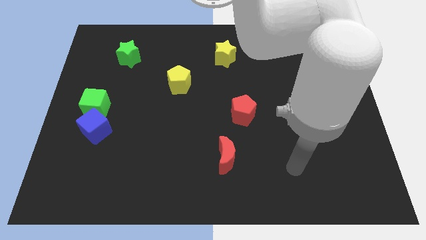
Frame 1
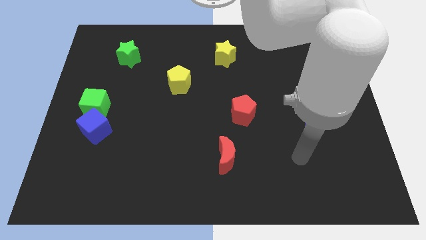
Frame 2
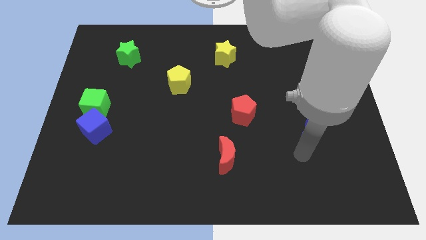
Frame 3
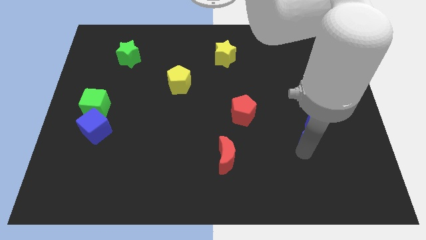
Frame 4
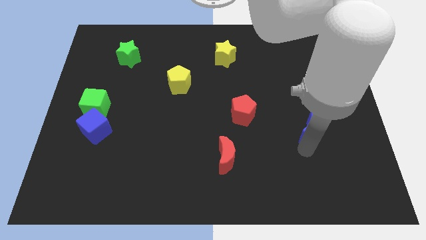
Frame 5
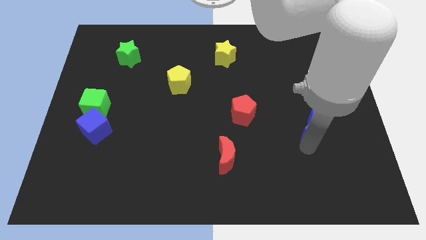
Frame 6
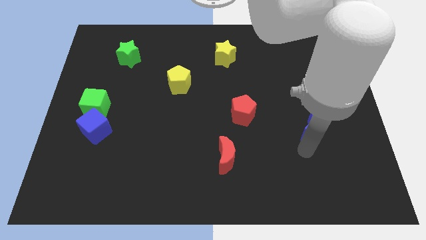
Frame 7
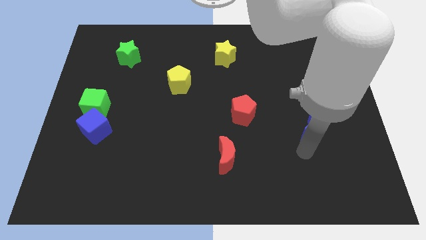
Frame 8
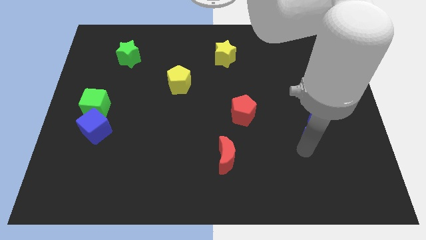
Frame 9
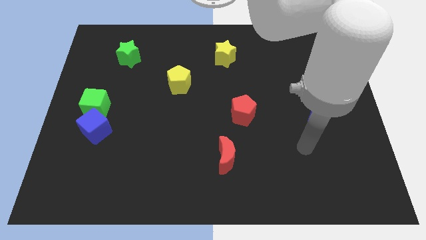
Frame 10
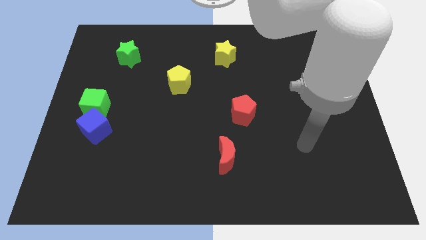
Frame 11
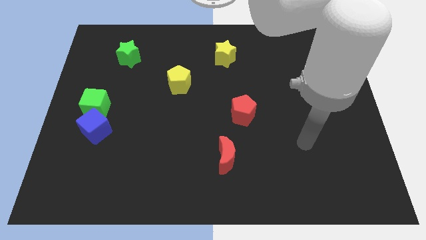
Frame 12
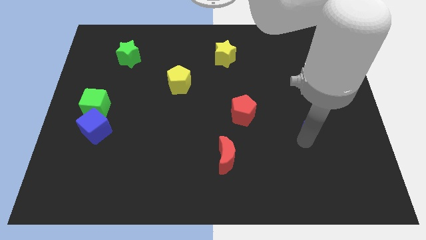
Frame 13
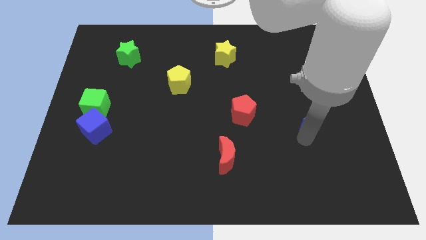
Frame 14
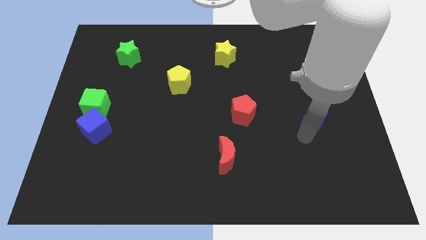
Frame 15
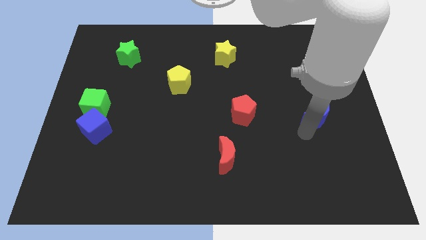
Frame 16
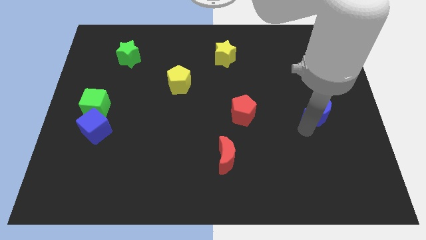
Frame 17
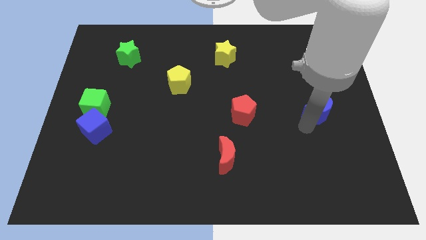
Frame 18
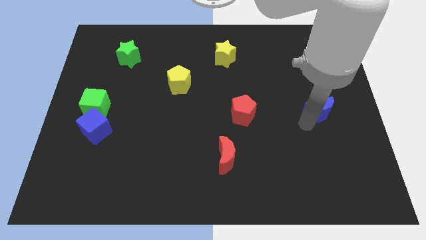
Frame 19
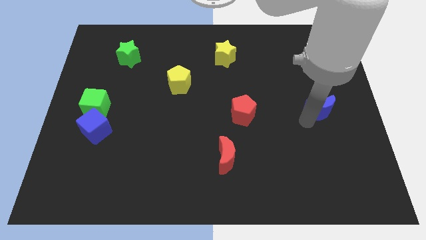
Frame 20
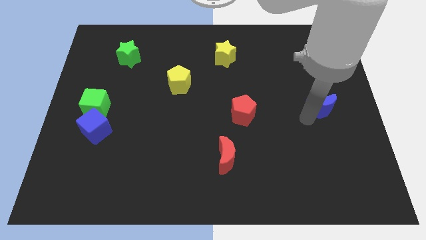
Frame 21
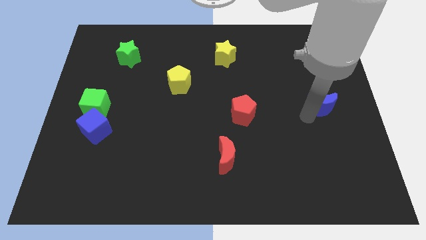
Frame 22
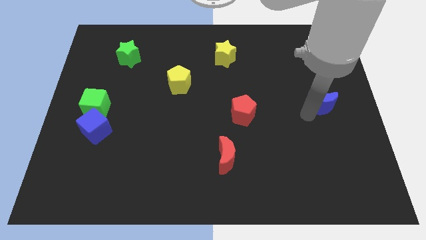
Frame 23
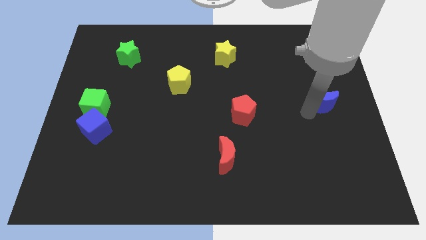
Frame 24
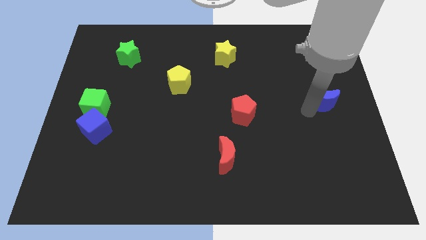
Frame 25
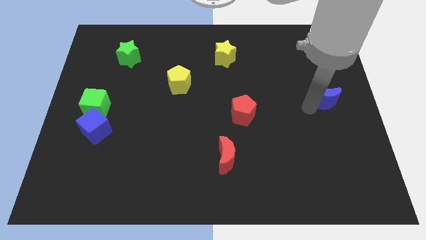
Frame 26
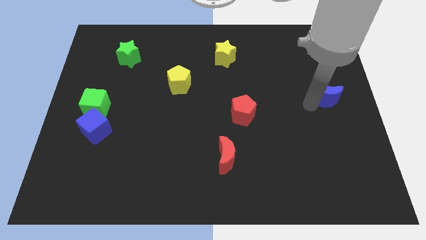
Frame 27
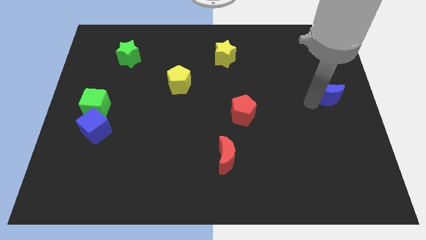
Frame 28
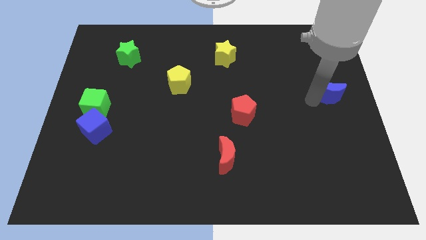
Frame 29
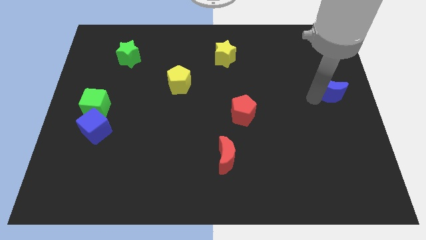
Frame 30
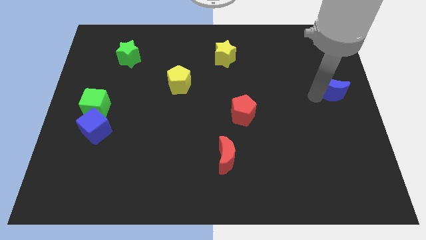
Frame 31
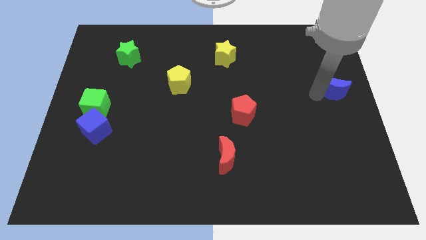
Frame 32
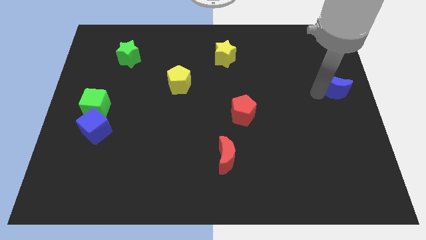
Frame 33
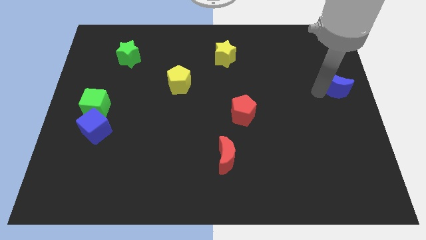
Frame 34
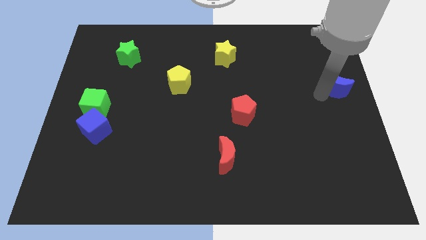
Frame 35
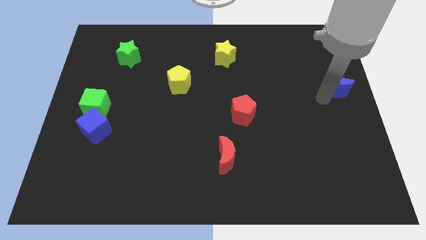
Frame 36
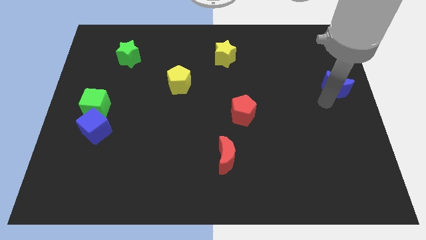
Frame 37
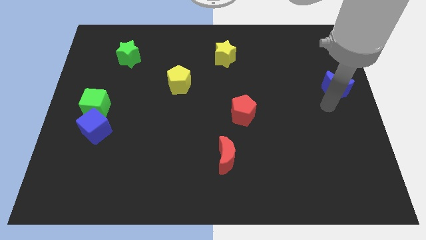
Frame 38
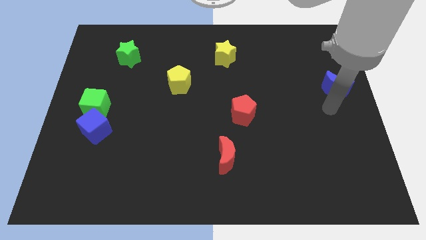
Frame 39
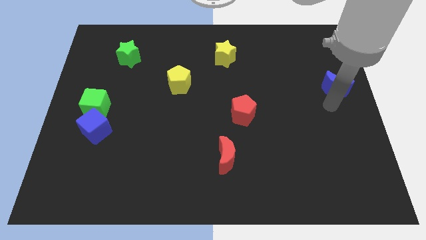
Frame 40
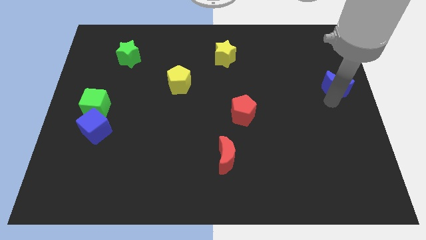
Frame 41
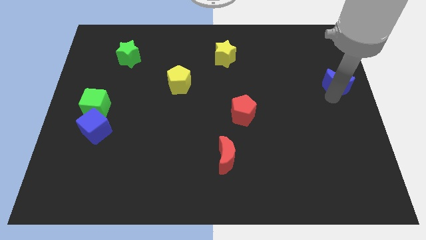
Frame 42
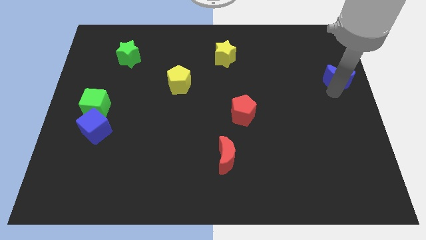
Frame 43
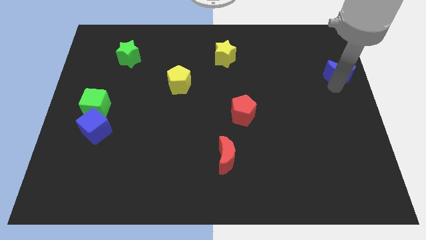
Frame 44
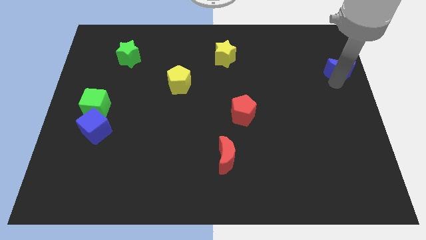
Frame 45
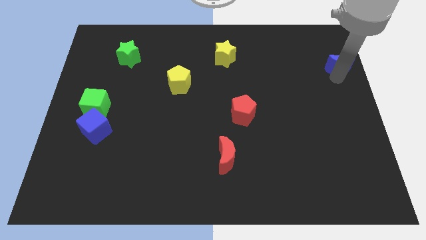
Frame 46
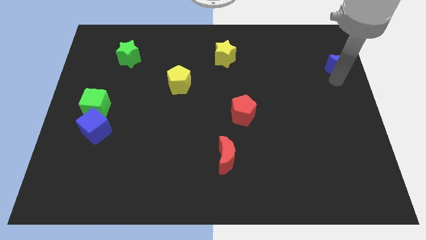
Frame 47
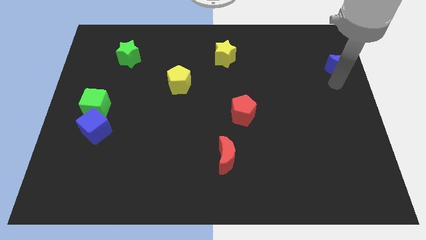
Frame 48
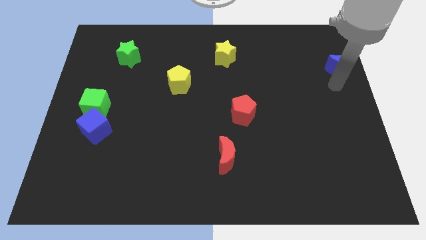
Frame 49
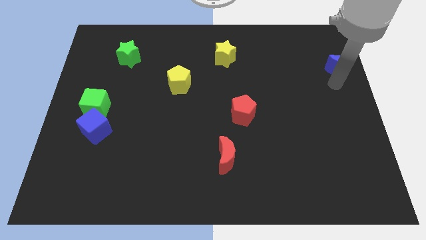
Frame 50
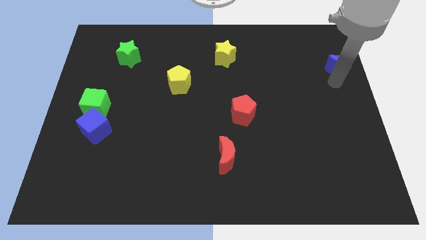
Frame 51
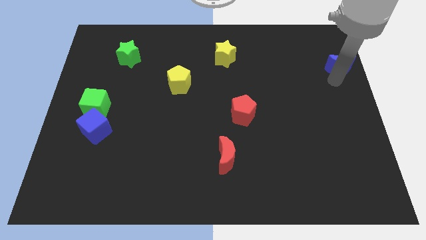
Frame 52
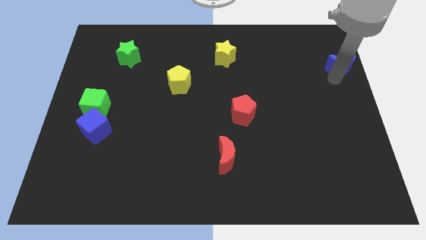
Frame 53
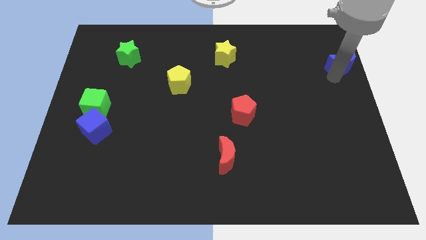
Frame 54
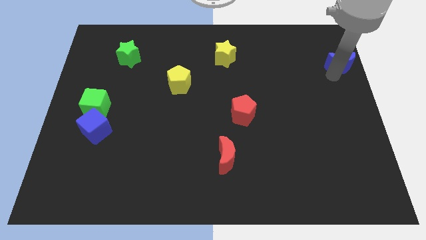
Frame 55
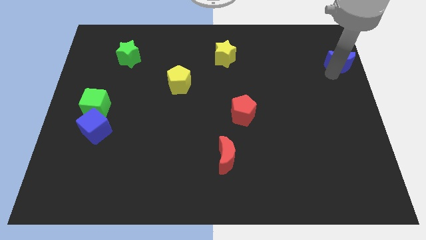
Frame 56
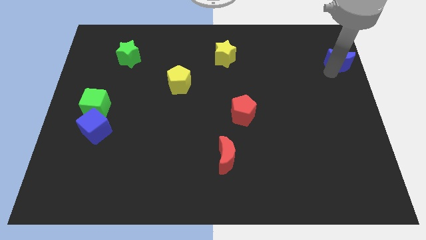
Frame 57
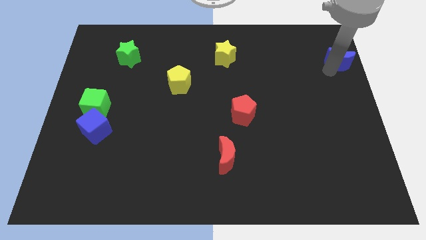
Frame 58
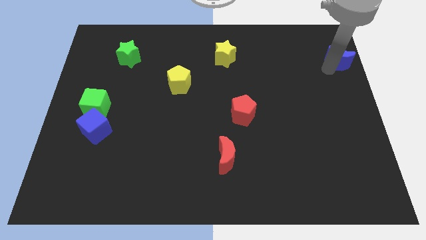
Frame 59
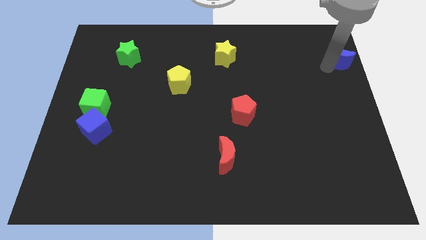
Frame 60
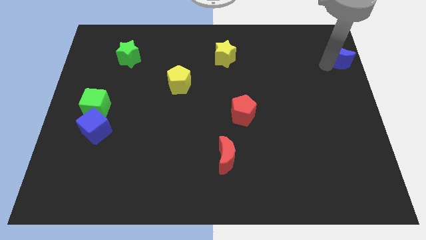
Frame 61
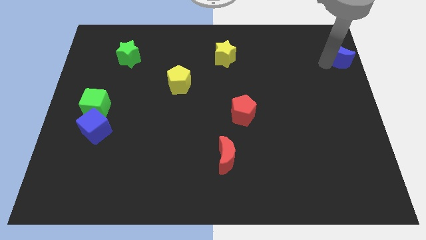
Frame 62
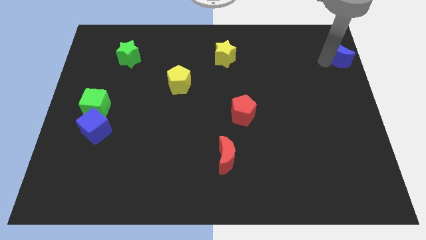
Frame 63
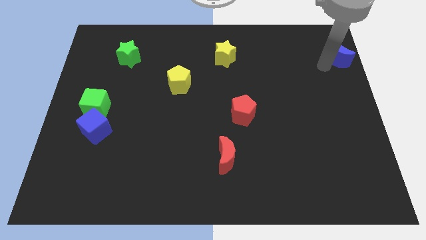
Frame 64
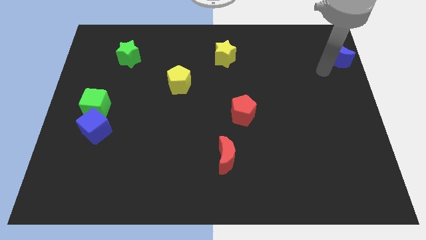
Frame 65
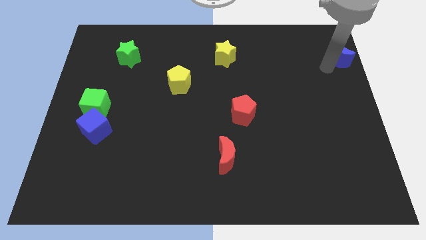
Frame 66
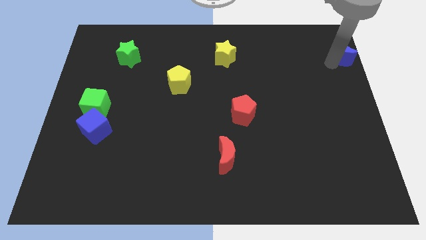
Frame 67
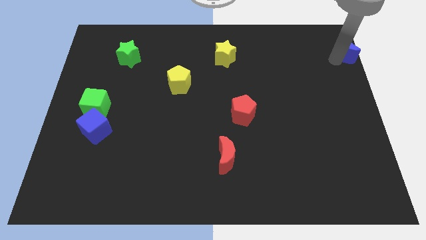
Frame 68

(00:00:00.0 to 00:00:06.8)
put the blue moon to the top right corner
